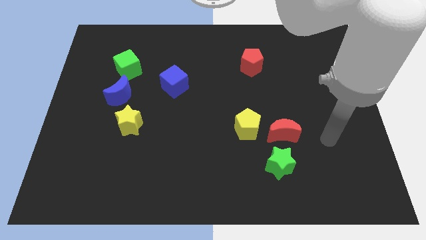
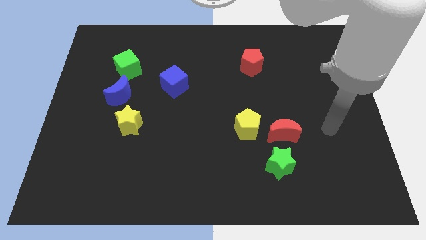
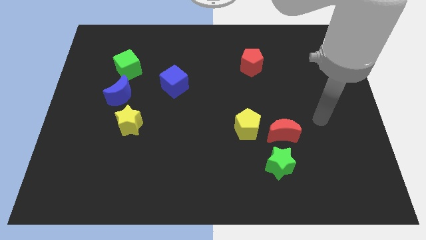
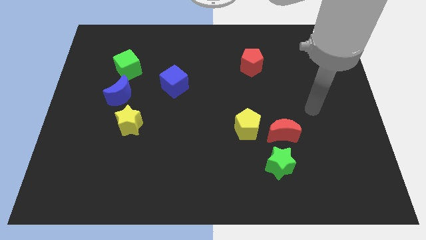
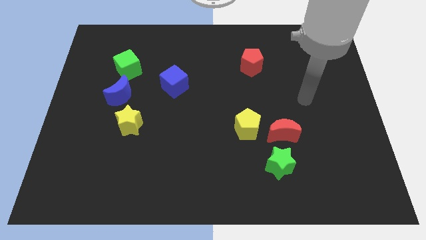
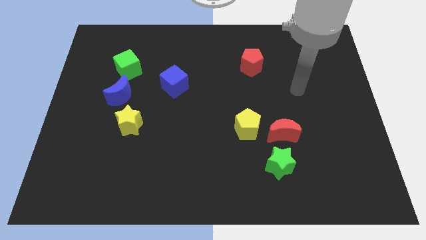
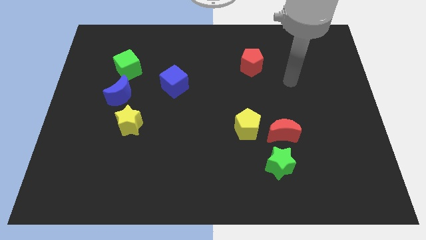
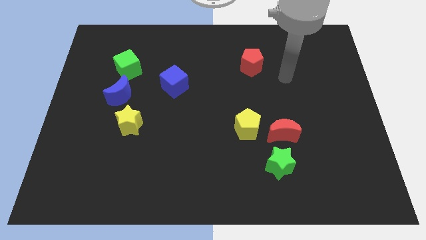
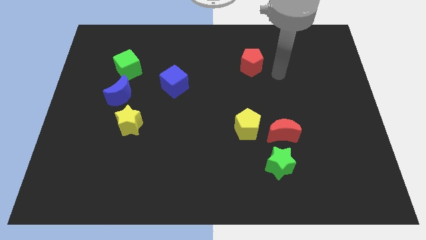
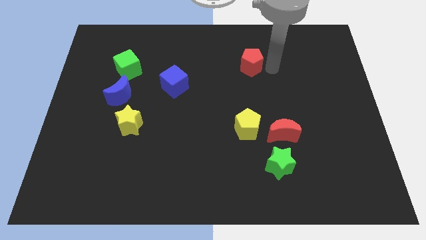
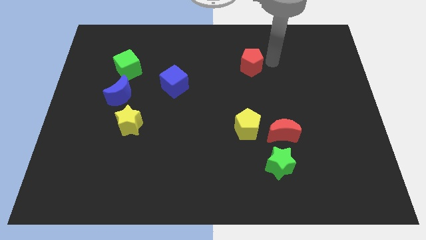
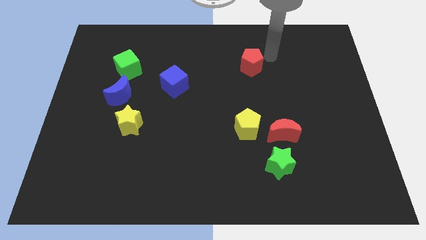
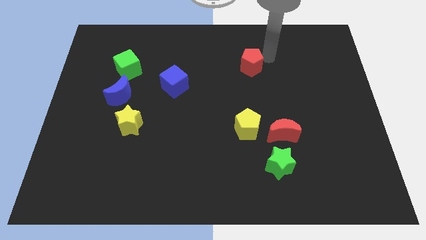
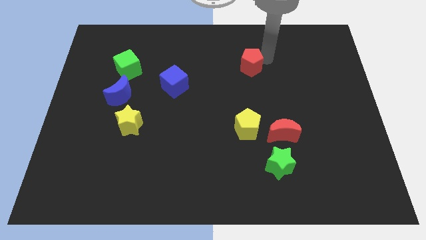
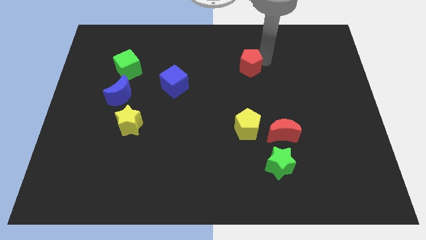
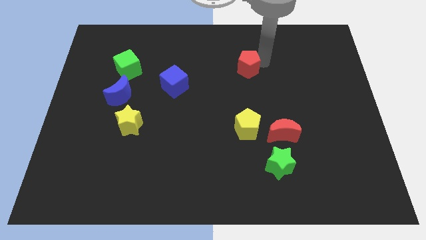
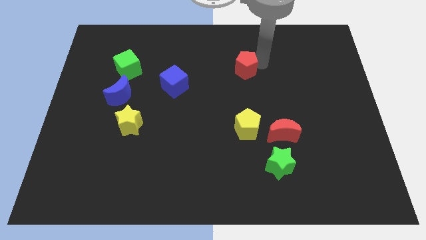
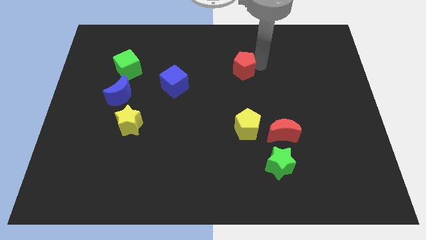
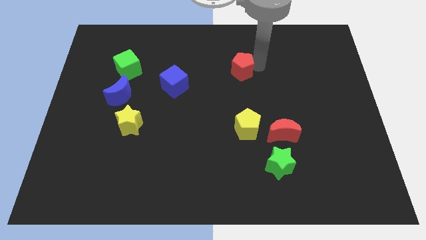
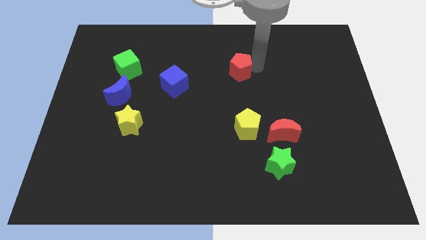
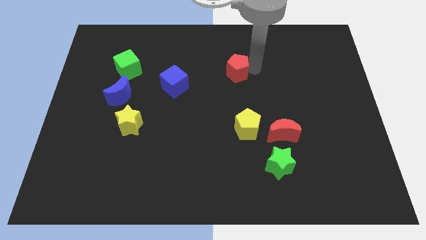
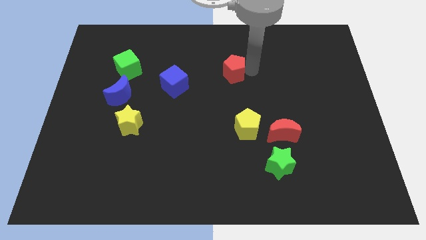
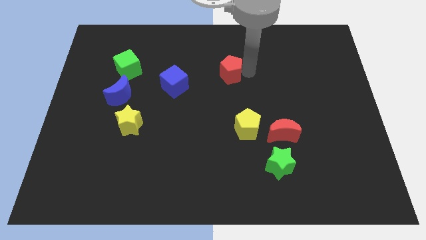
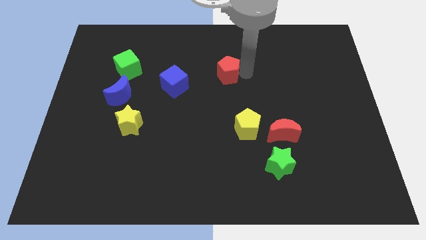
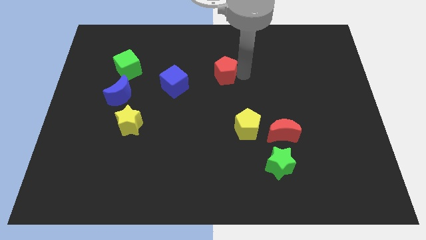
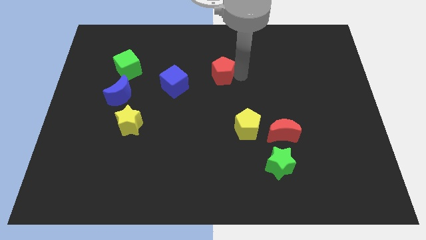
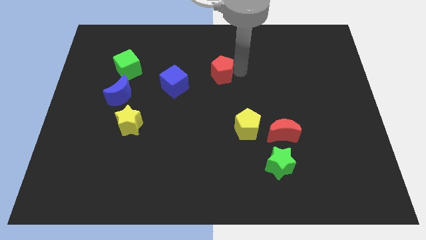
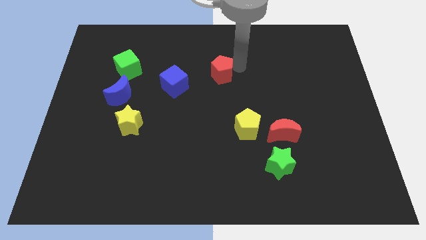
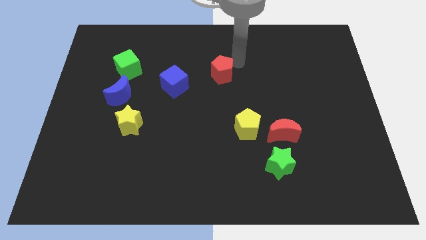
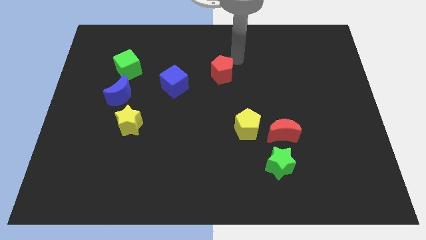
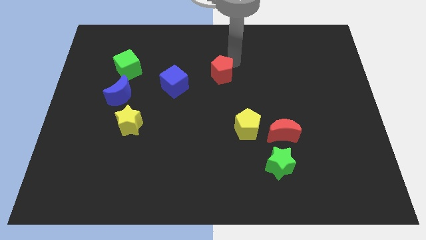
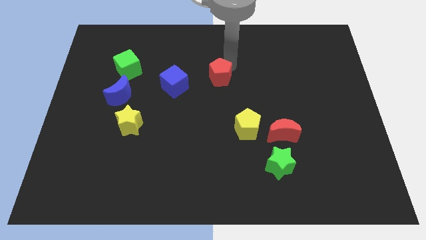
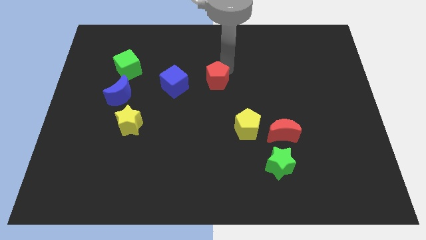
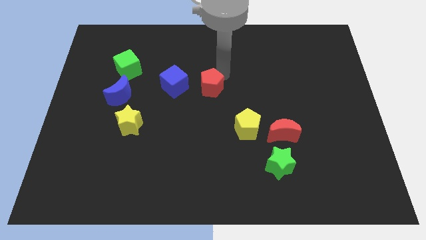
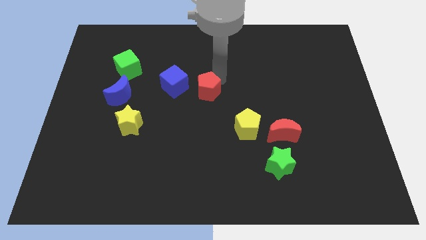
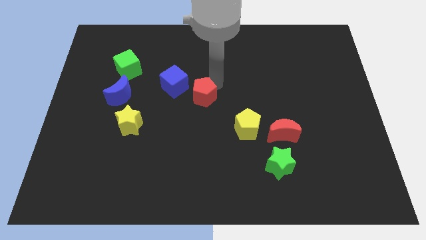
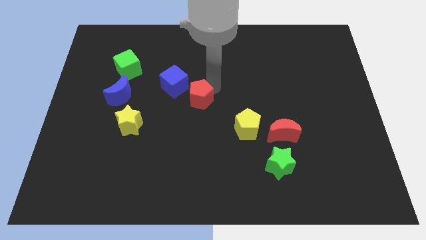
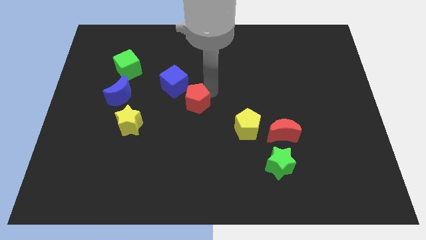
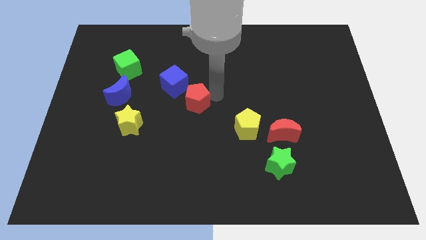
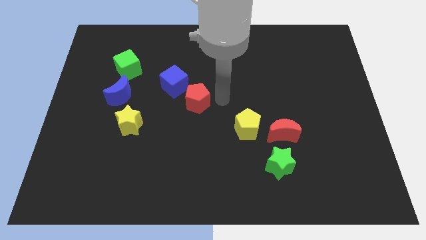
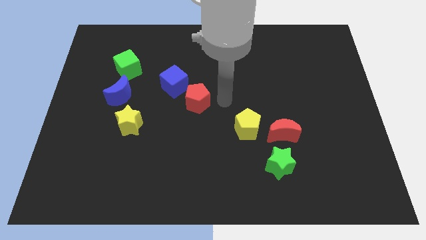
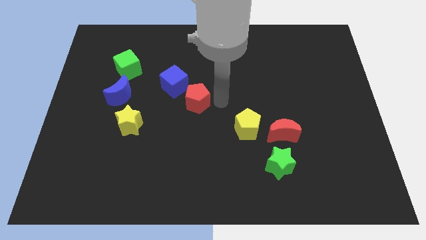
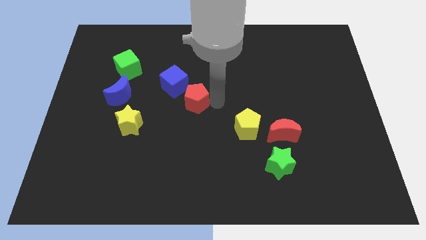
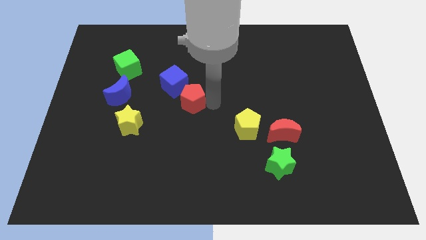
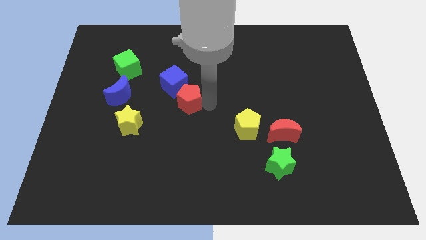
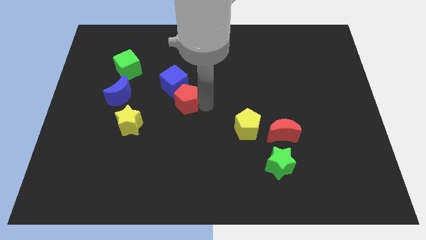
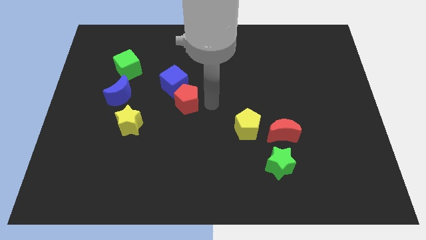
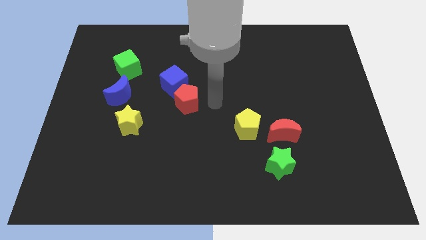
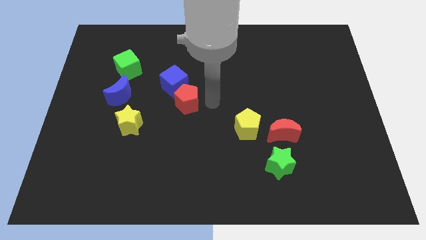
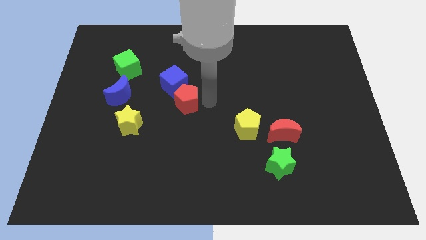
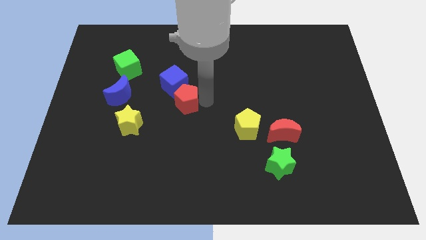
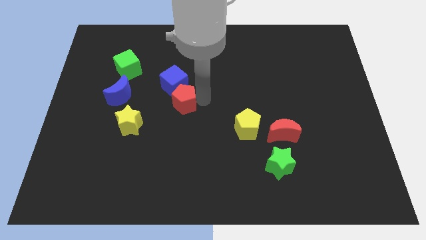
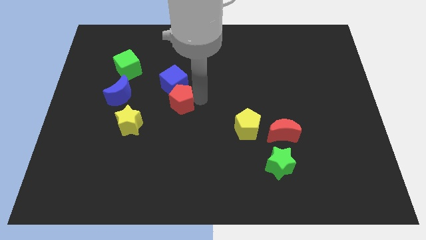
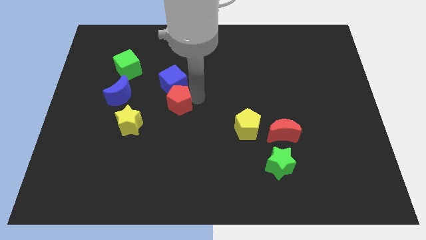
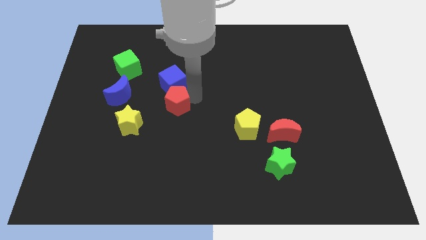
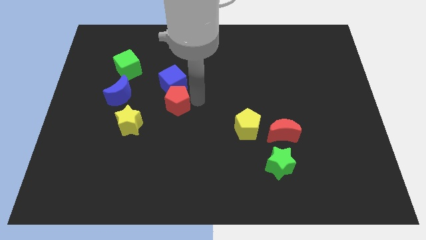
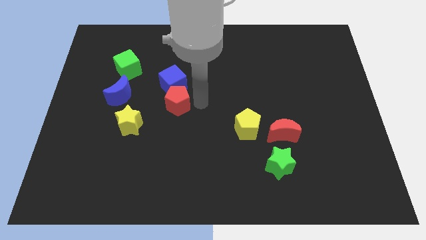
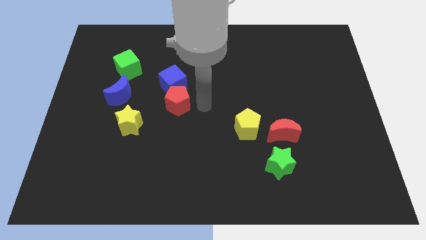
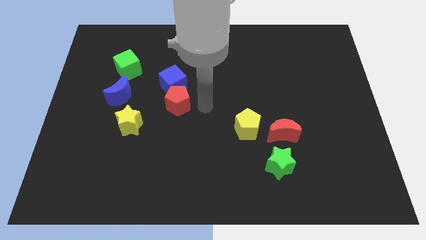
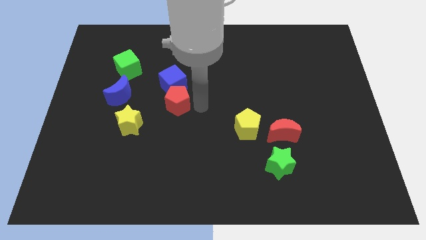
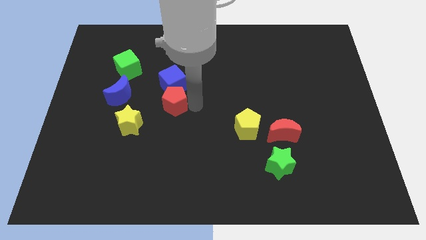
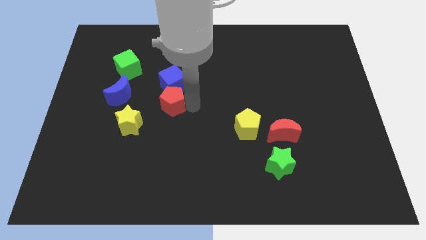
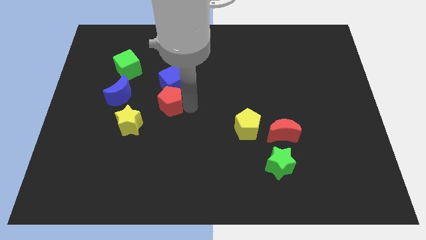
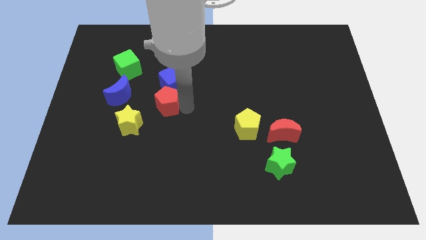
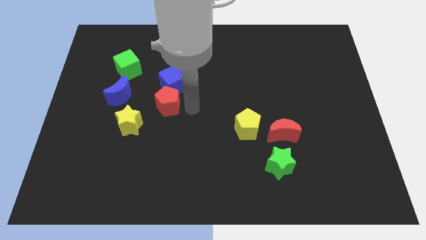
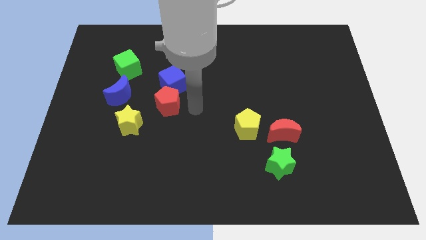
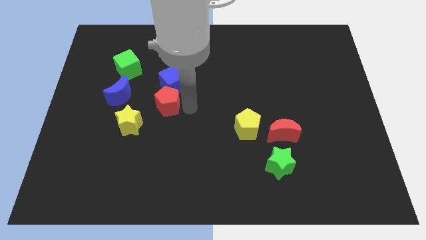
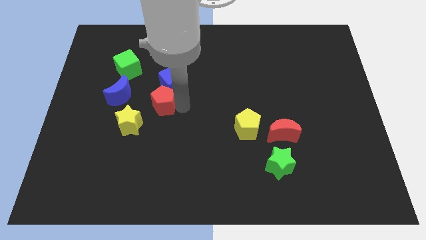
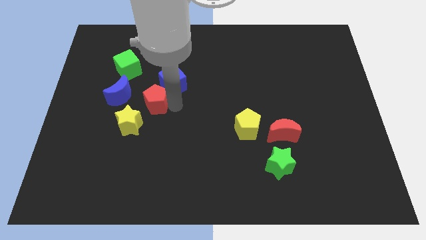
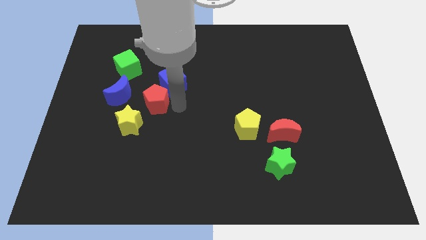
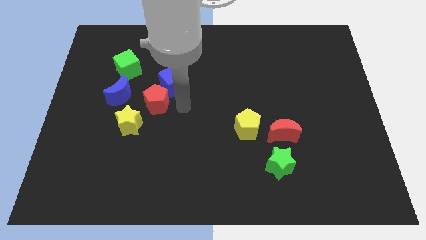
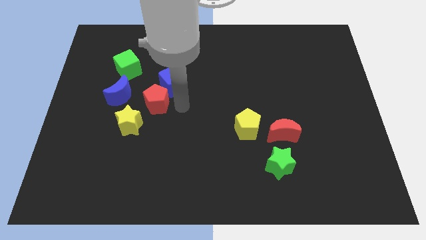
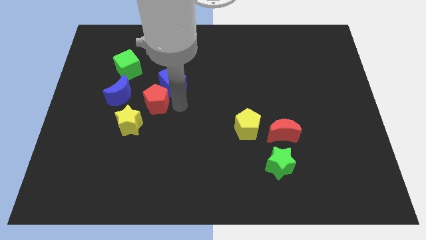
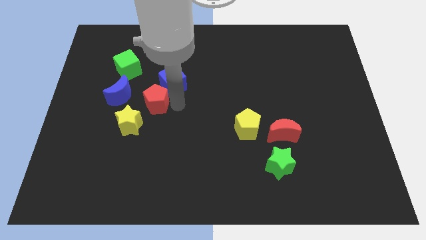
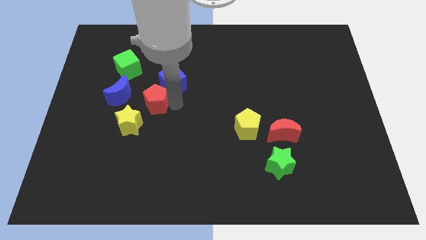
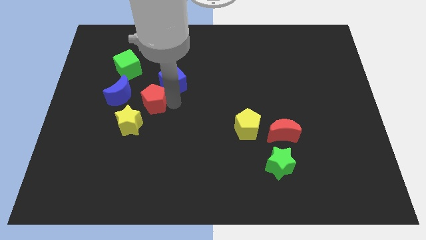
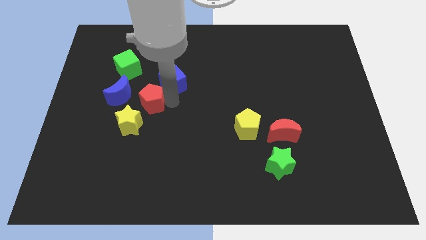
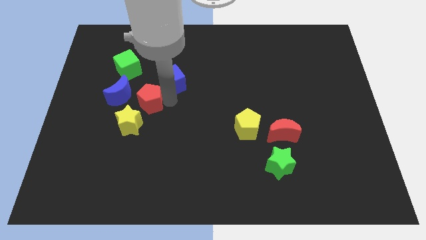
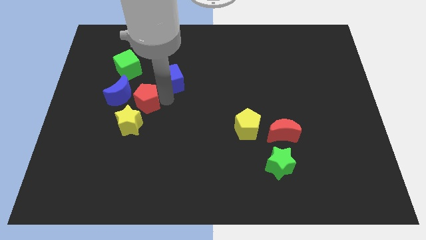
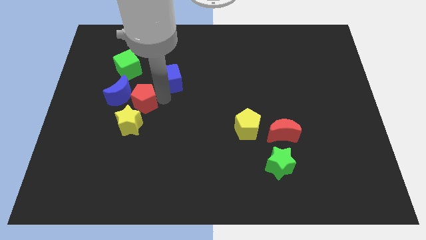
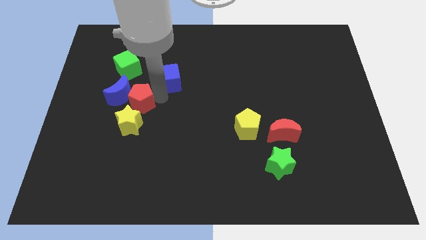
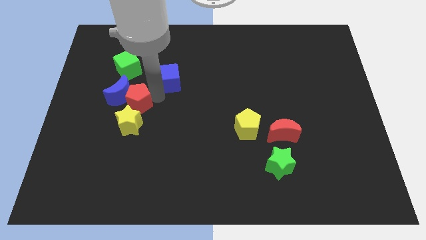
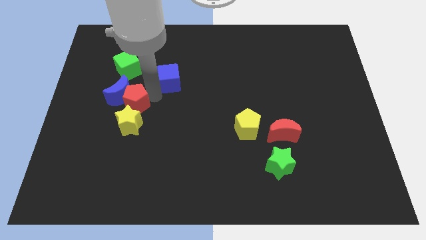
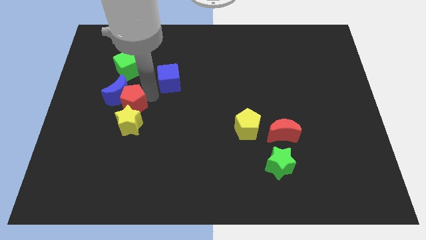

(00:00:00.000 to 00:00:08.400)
slide the red pentagon to the bottom of the blue moon
